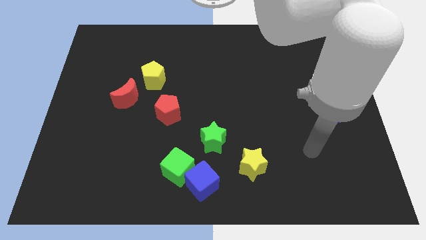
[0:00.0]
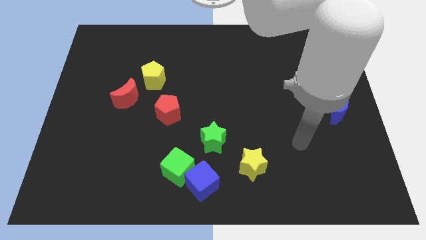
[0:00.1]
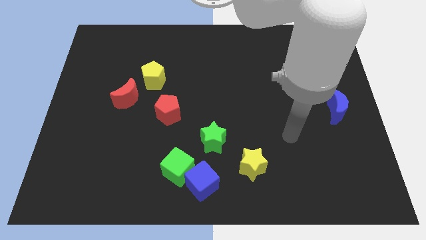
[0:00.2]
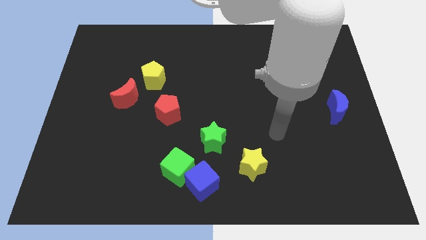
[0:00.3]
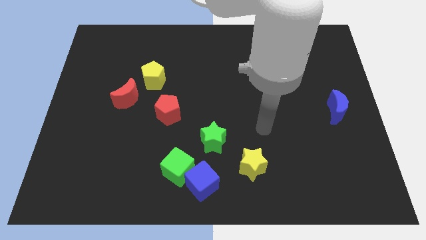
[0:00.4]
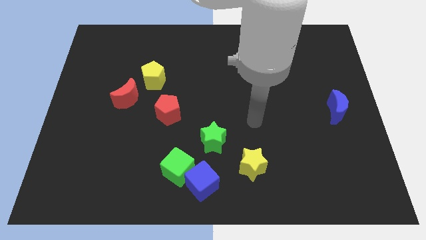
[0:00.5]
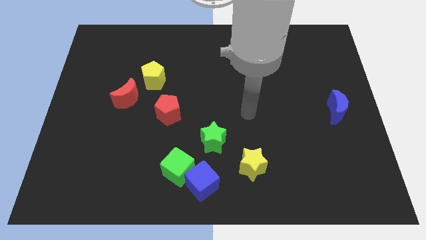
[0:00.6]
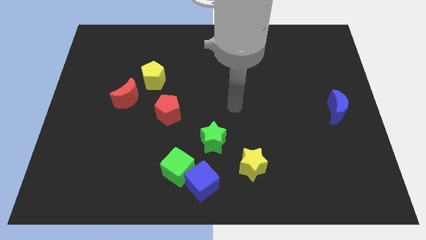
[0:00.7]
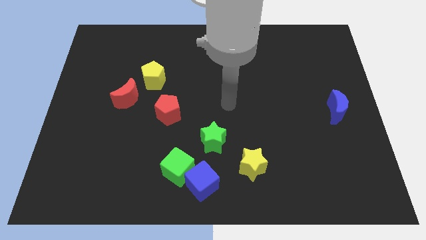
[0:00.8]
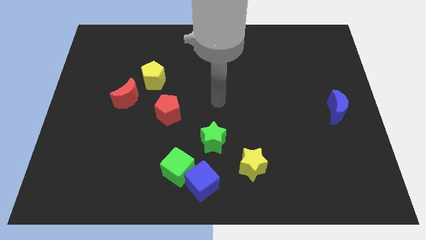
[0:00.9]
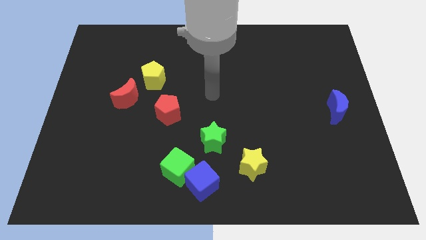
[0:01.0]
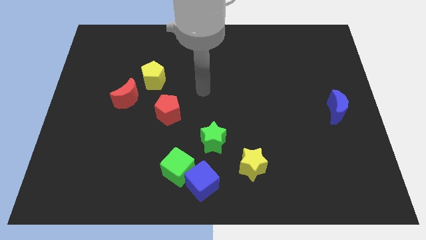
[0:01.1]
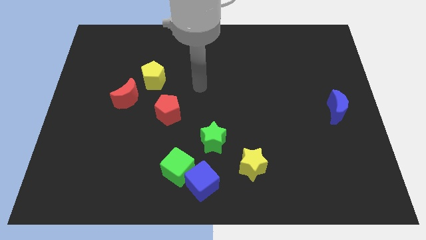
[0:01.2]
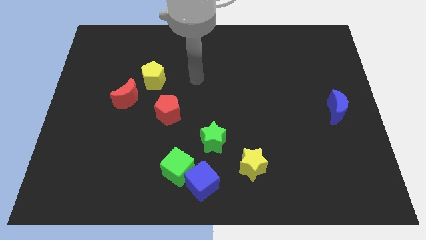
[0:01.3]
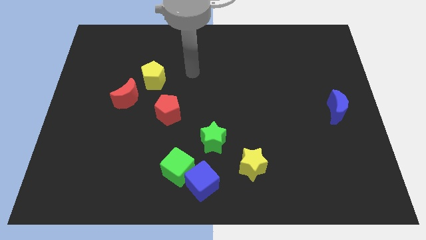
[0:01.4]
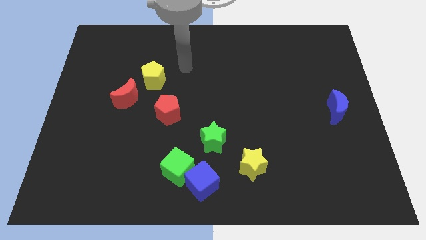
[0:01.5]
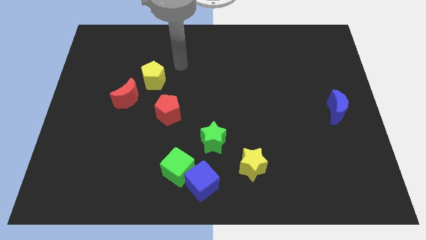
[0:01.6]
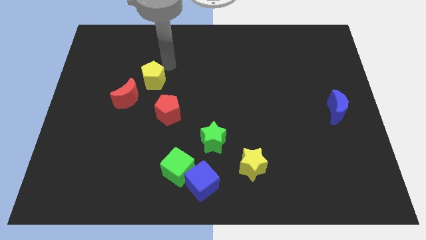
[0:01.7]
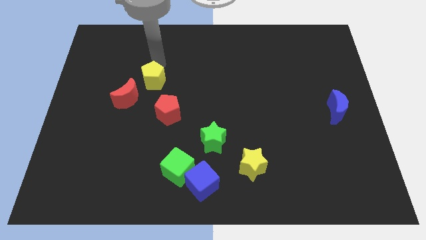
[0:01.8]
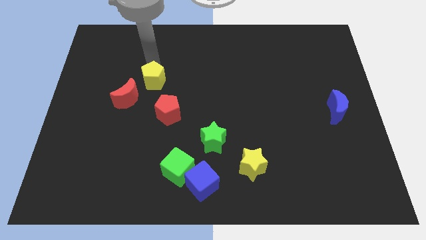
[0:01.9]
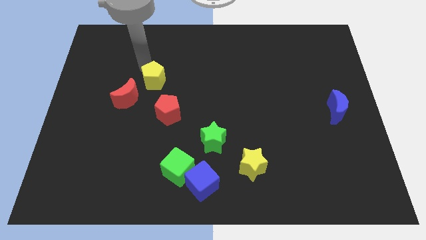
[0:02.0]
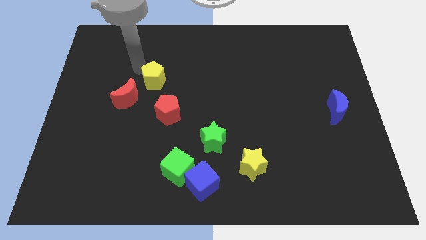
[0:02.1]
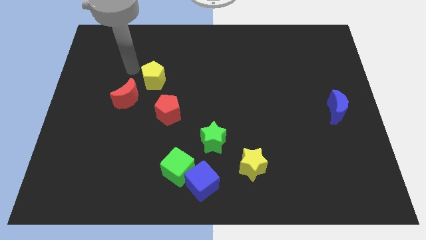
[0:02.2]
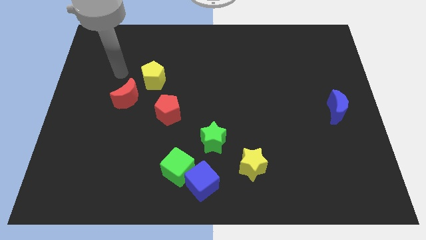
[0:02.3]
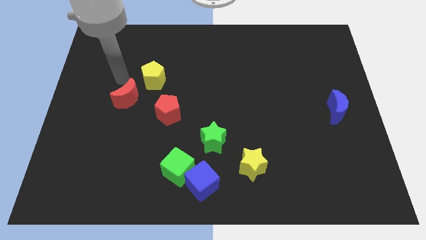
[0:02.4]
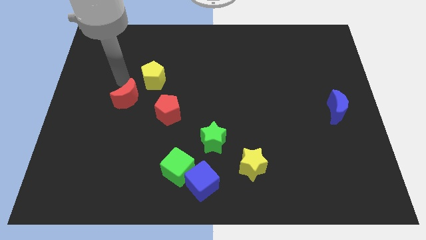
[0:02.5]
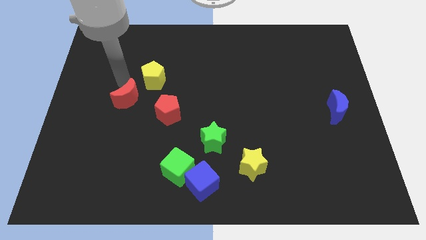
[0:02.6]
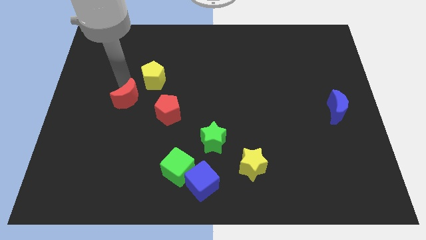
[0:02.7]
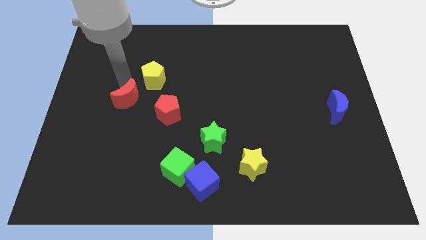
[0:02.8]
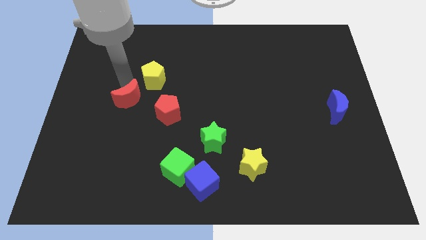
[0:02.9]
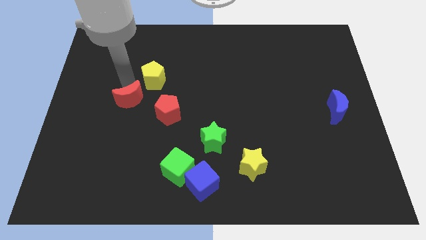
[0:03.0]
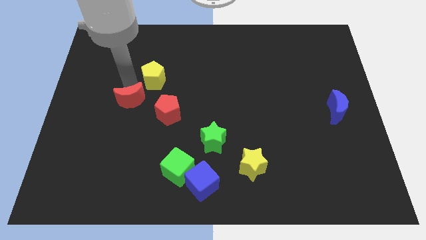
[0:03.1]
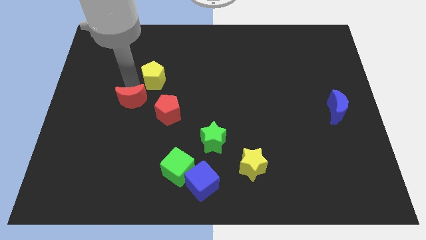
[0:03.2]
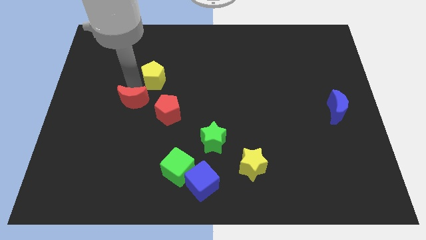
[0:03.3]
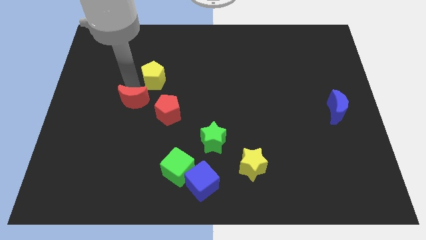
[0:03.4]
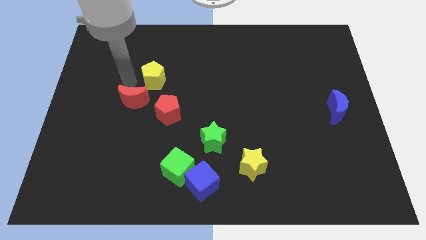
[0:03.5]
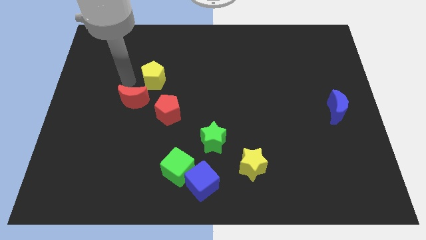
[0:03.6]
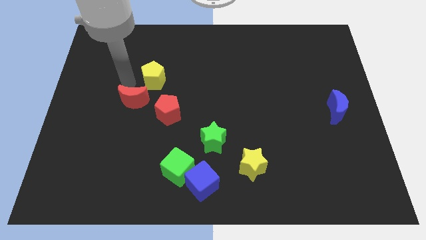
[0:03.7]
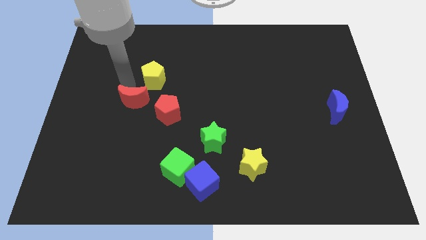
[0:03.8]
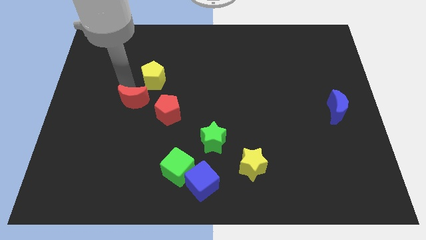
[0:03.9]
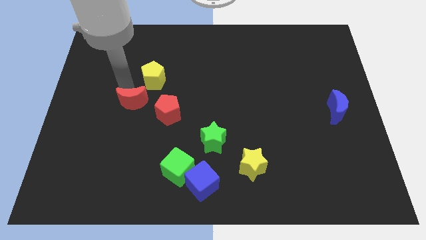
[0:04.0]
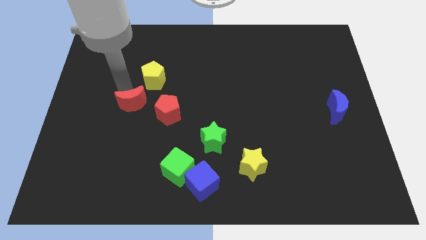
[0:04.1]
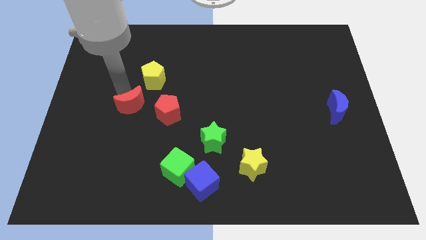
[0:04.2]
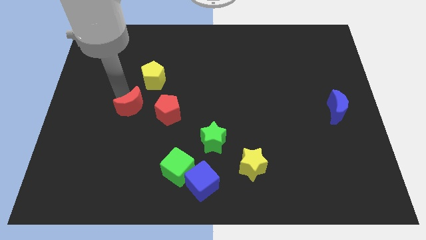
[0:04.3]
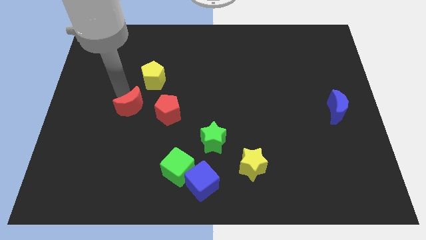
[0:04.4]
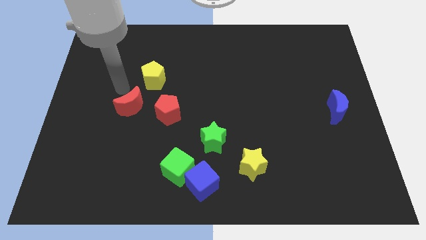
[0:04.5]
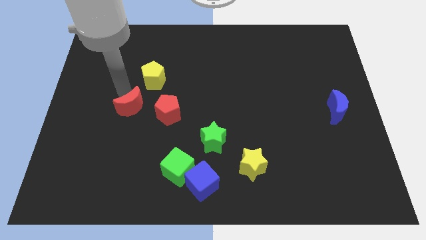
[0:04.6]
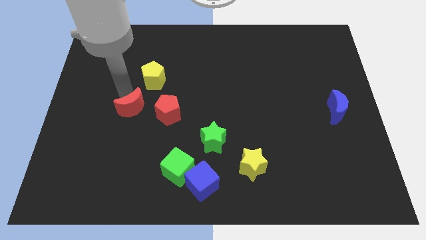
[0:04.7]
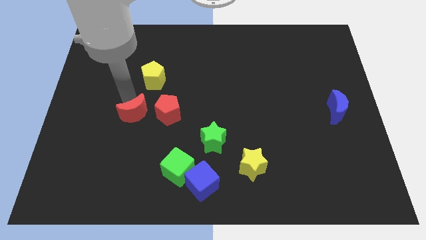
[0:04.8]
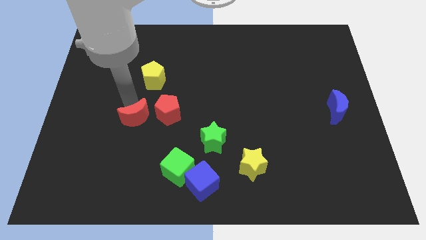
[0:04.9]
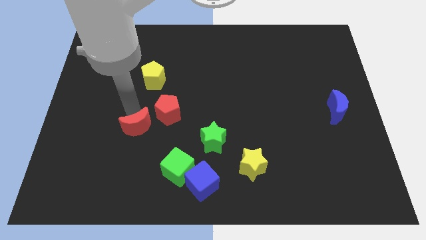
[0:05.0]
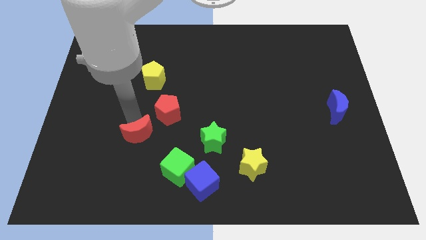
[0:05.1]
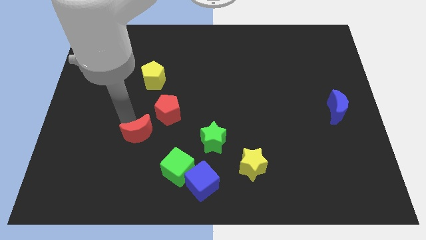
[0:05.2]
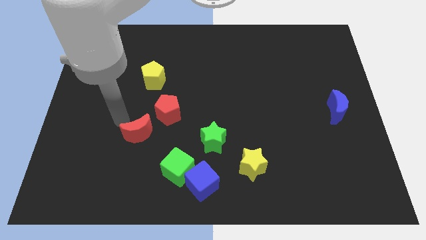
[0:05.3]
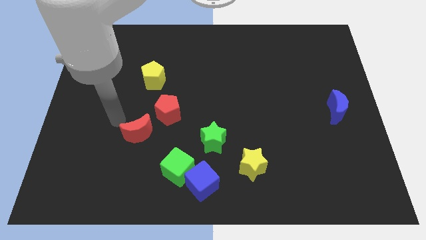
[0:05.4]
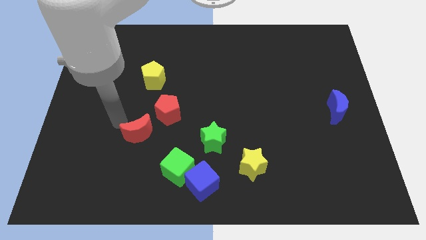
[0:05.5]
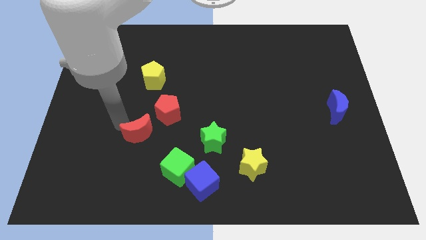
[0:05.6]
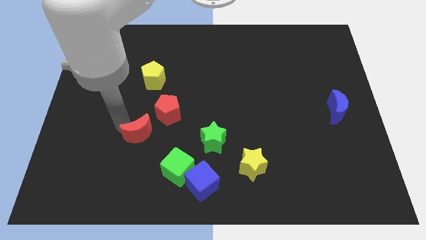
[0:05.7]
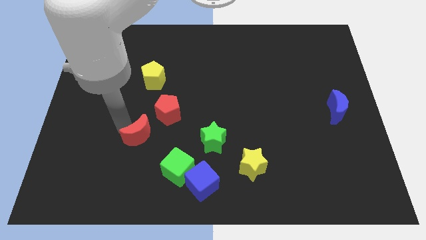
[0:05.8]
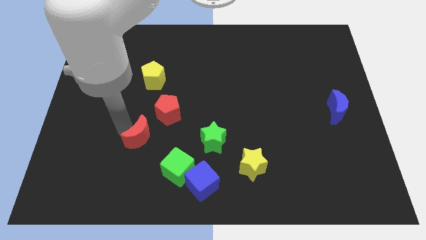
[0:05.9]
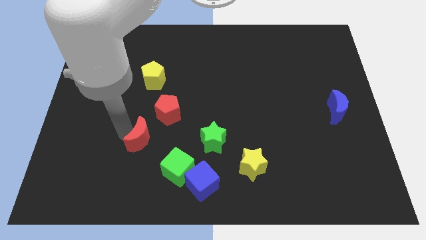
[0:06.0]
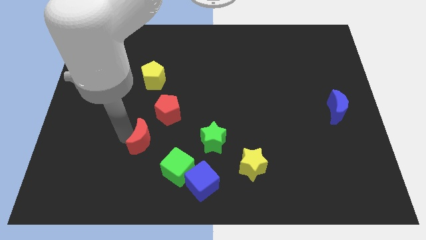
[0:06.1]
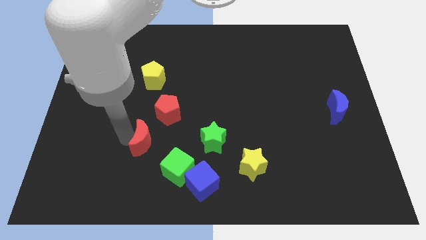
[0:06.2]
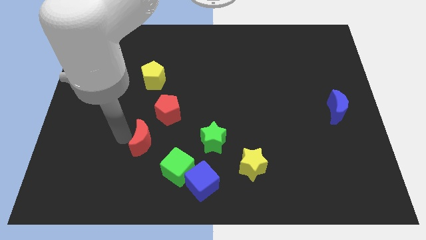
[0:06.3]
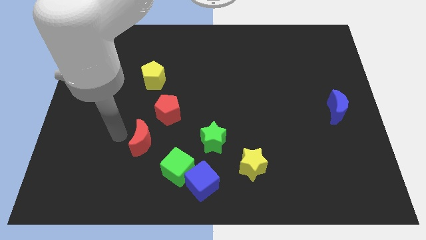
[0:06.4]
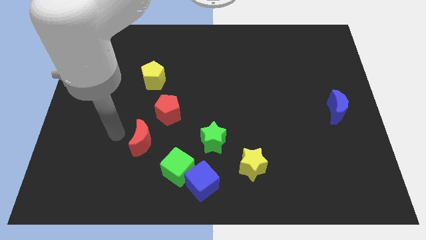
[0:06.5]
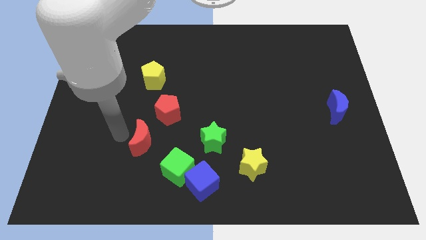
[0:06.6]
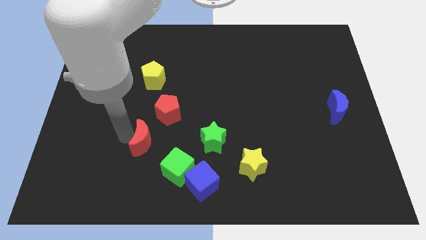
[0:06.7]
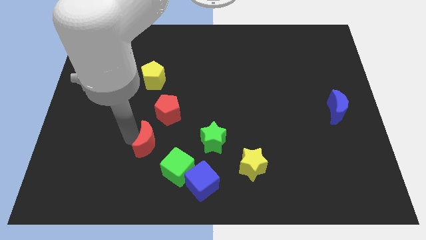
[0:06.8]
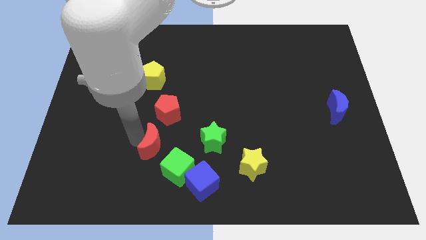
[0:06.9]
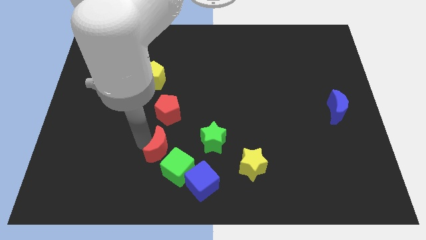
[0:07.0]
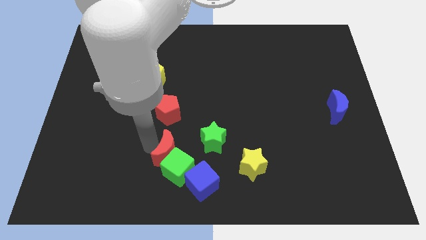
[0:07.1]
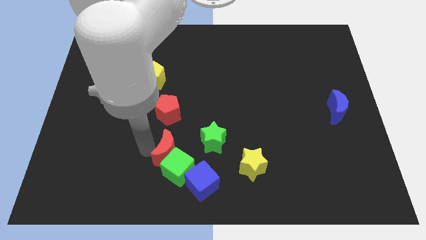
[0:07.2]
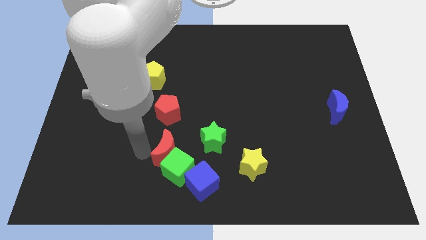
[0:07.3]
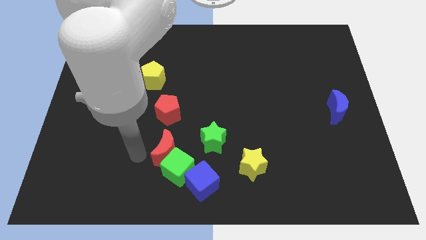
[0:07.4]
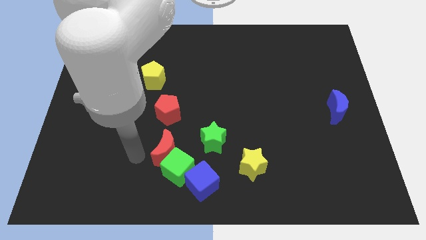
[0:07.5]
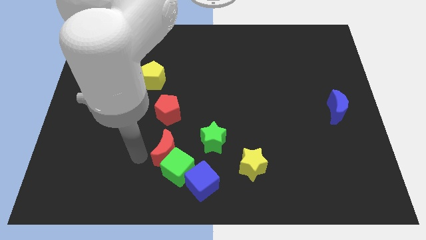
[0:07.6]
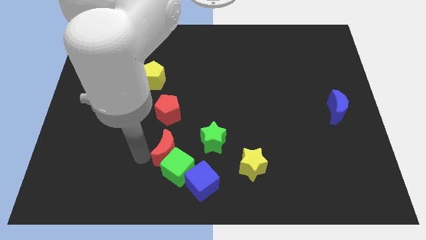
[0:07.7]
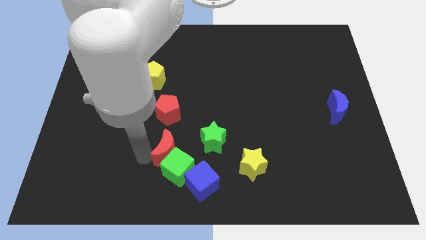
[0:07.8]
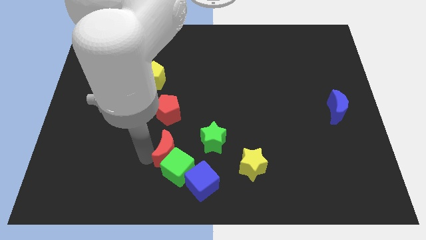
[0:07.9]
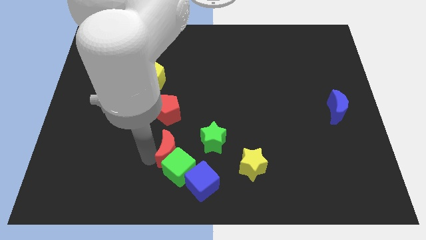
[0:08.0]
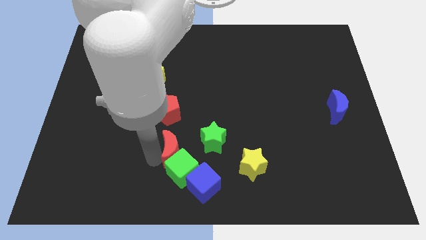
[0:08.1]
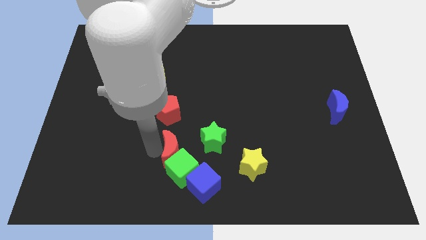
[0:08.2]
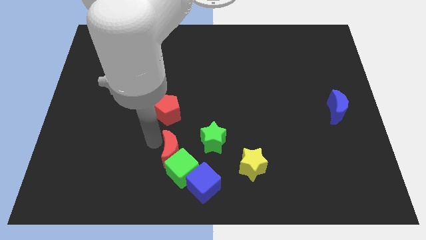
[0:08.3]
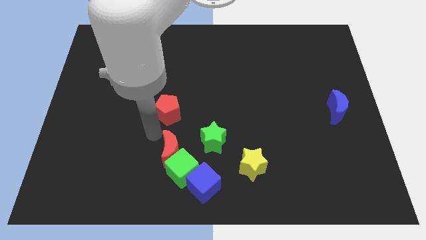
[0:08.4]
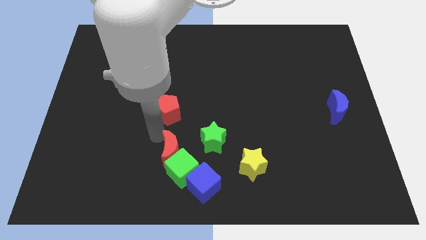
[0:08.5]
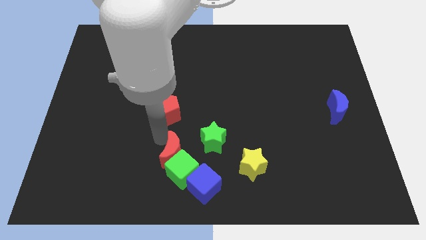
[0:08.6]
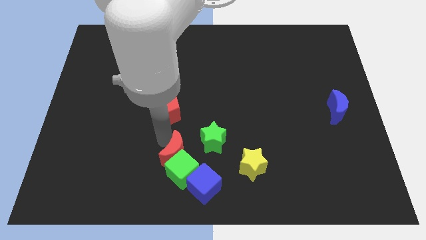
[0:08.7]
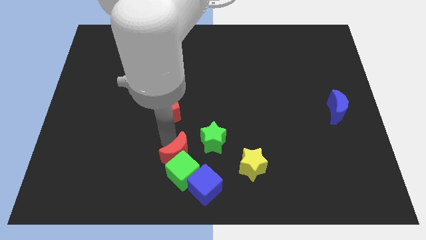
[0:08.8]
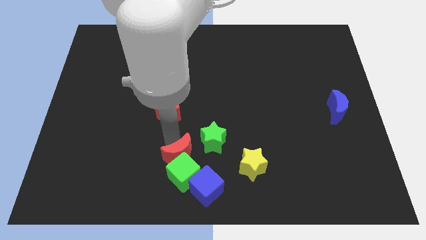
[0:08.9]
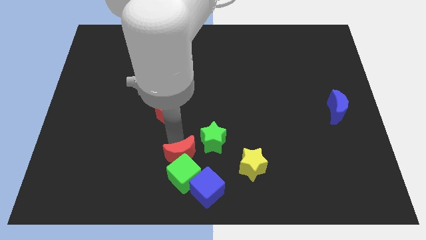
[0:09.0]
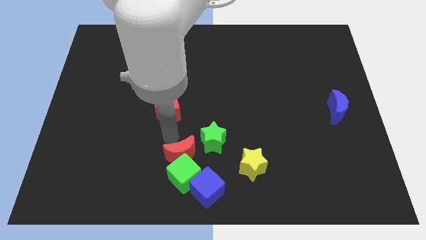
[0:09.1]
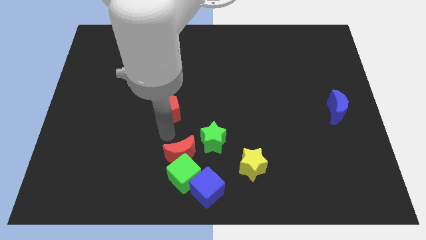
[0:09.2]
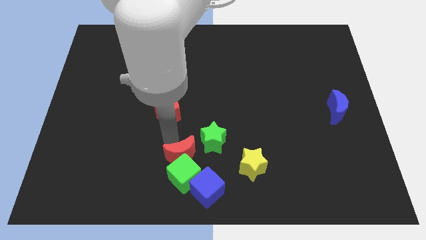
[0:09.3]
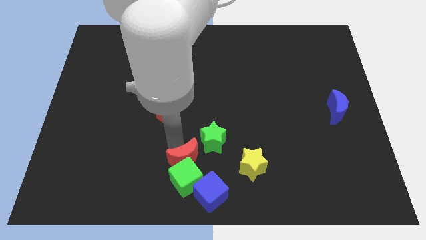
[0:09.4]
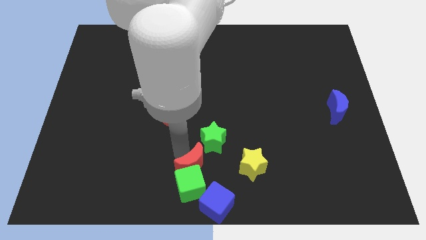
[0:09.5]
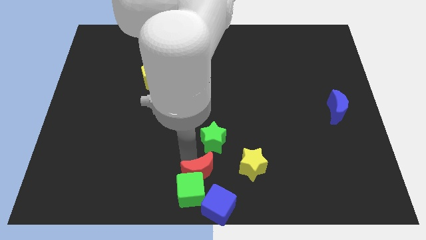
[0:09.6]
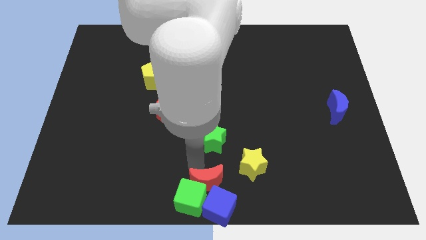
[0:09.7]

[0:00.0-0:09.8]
push the red moon next to the blue cube
